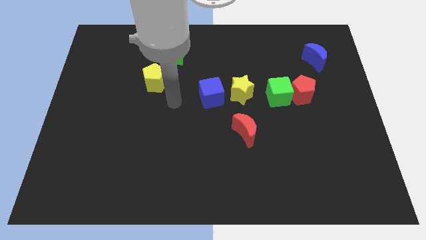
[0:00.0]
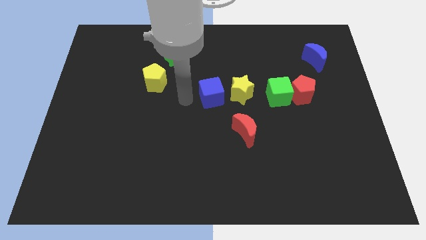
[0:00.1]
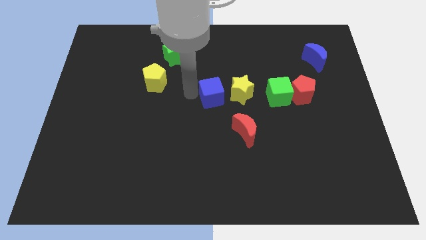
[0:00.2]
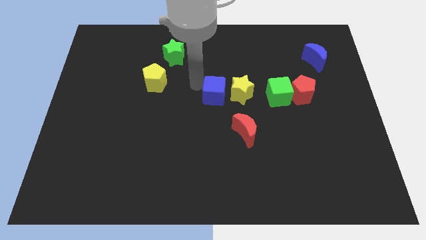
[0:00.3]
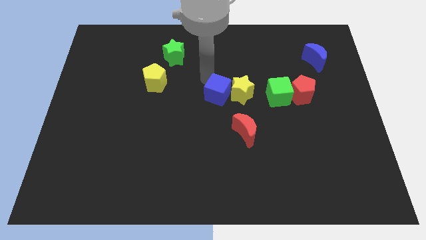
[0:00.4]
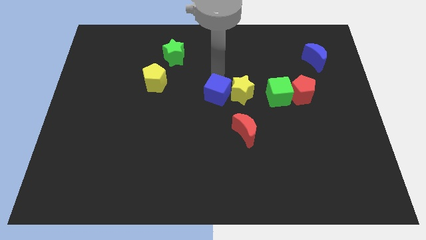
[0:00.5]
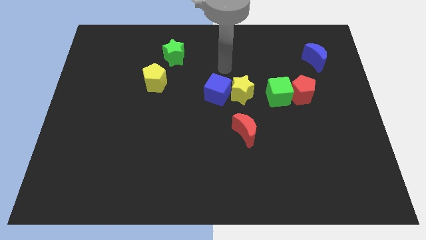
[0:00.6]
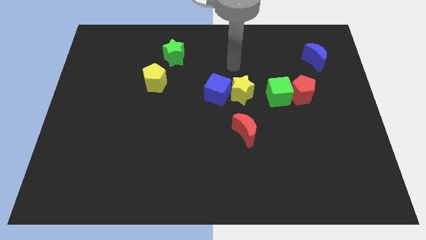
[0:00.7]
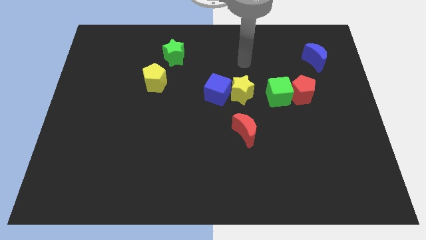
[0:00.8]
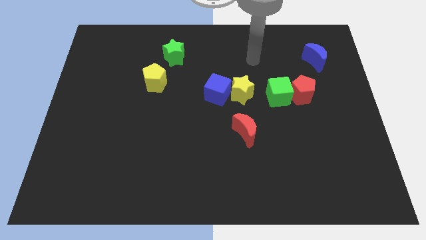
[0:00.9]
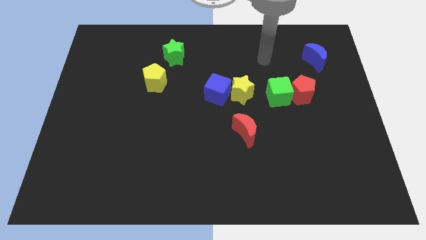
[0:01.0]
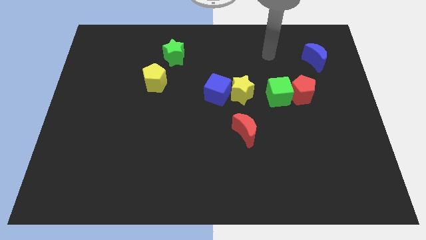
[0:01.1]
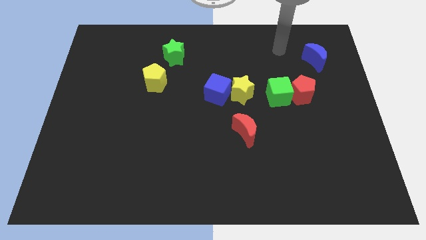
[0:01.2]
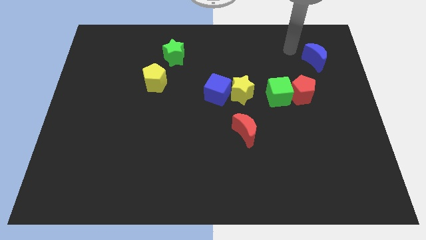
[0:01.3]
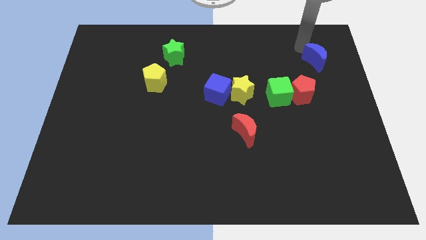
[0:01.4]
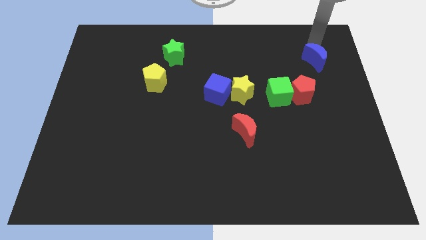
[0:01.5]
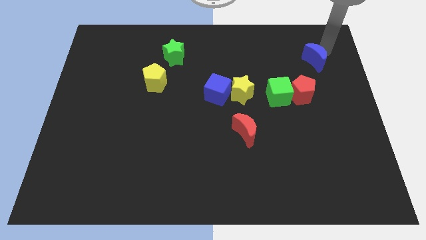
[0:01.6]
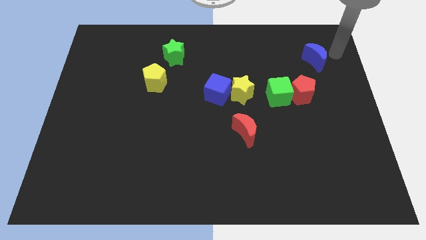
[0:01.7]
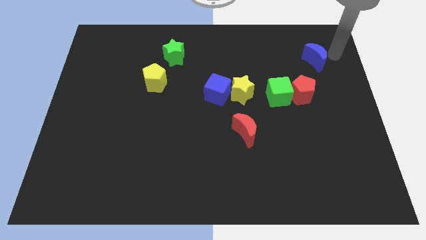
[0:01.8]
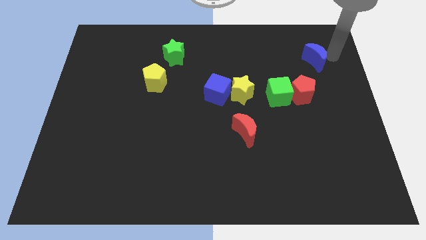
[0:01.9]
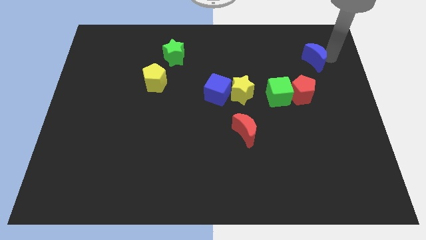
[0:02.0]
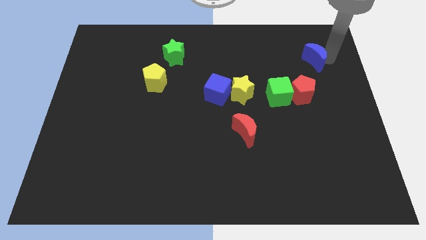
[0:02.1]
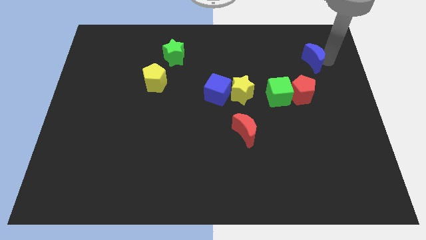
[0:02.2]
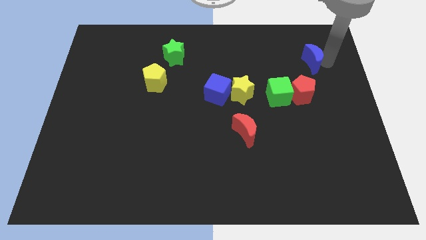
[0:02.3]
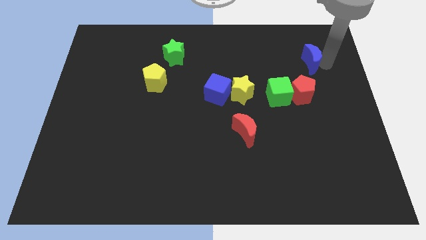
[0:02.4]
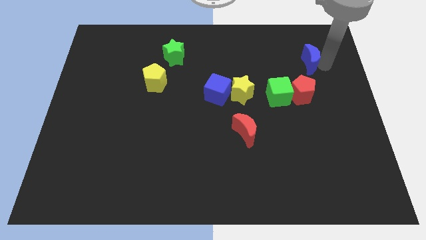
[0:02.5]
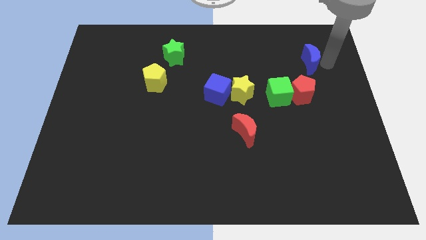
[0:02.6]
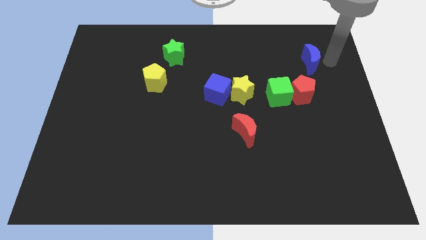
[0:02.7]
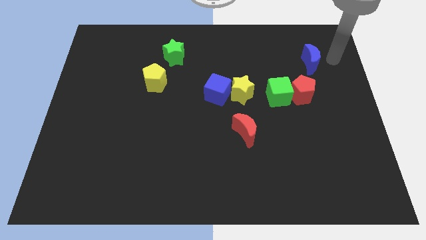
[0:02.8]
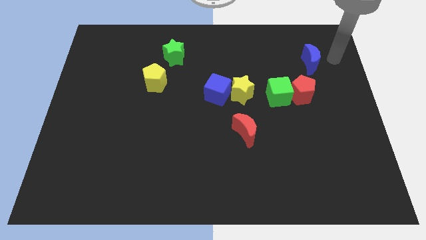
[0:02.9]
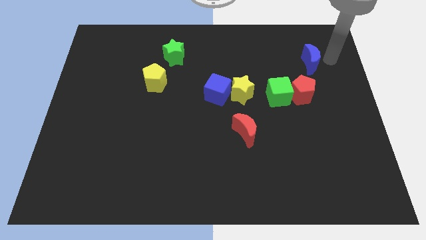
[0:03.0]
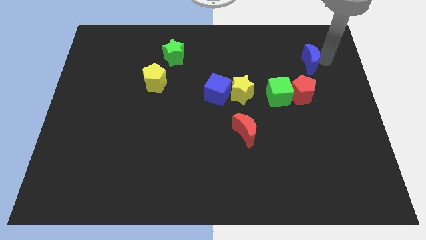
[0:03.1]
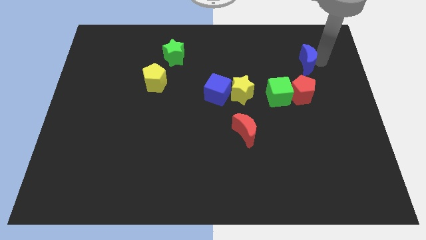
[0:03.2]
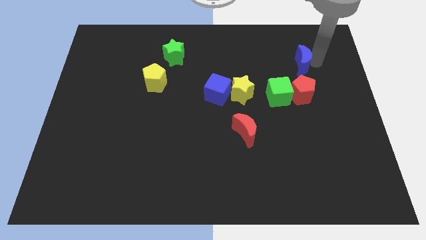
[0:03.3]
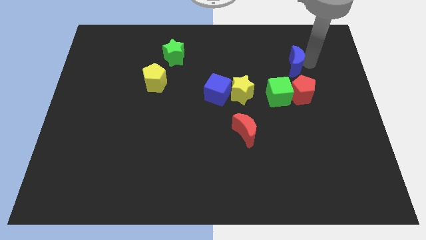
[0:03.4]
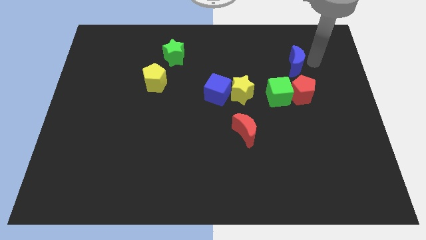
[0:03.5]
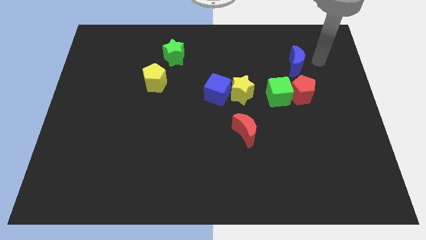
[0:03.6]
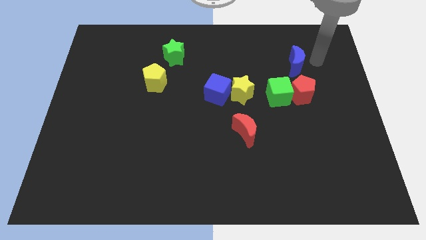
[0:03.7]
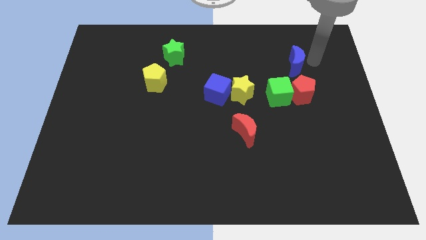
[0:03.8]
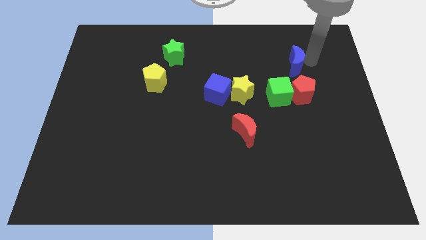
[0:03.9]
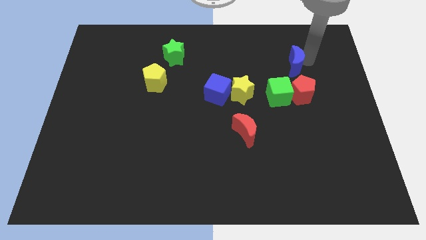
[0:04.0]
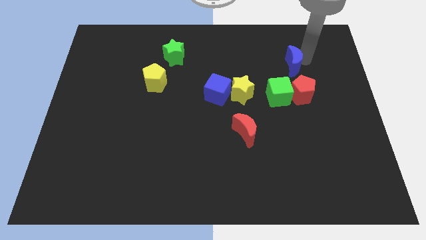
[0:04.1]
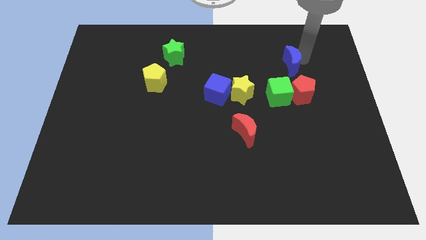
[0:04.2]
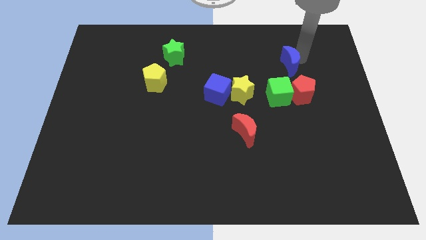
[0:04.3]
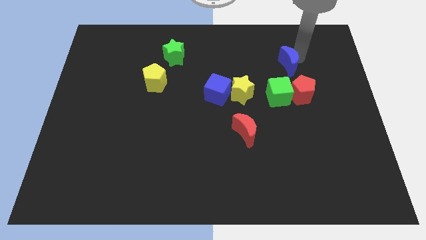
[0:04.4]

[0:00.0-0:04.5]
slide the blue moon to the left a bit

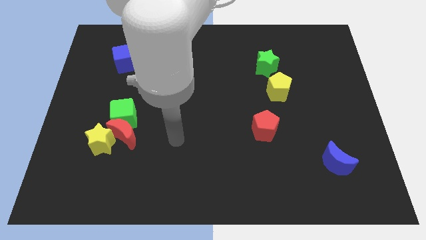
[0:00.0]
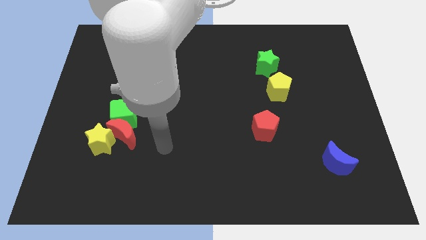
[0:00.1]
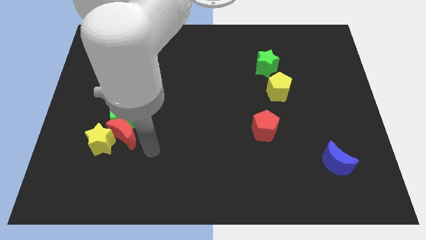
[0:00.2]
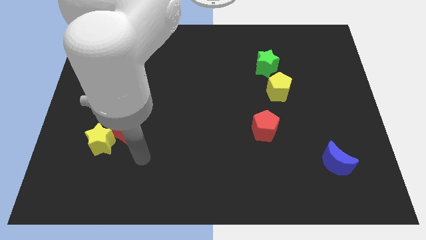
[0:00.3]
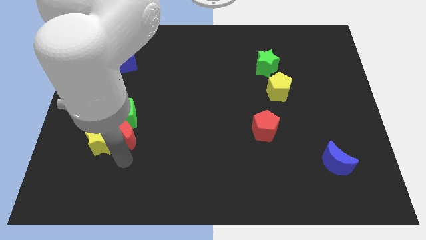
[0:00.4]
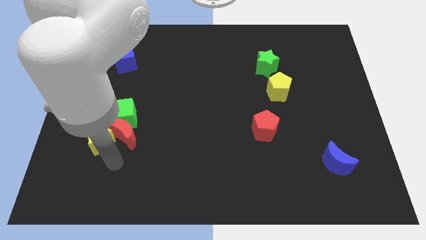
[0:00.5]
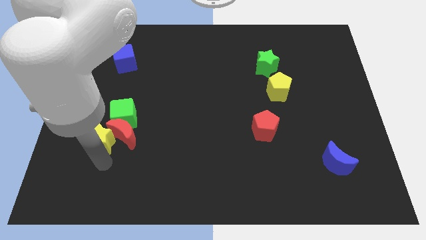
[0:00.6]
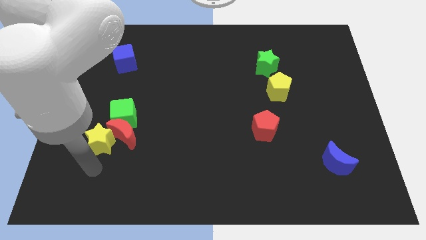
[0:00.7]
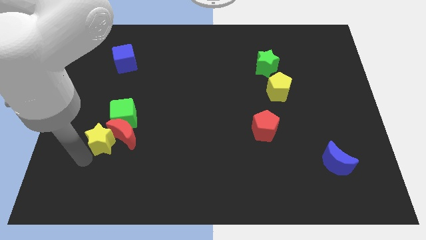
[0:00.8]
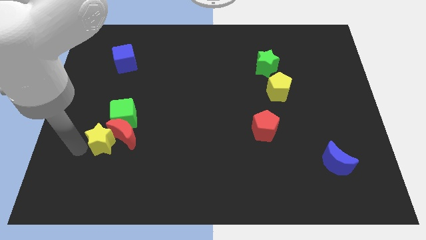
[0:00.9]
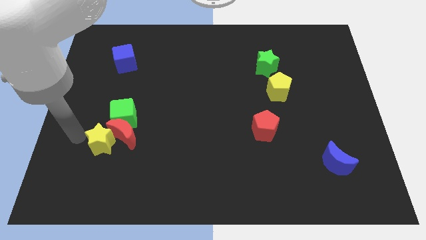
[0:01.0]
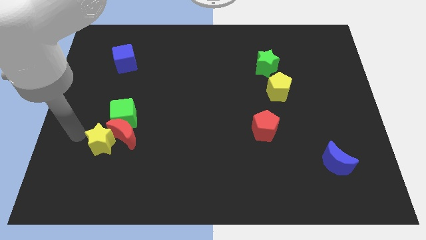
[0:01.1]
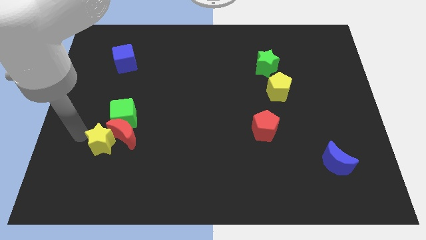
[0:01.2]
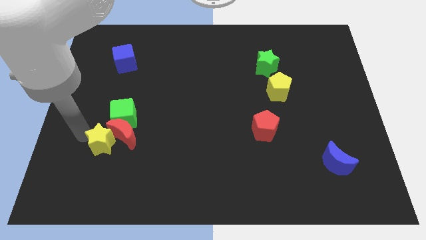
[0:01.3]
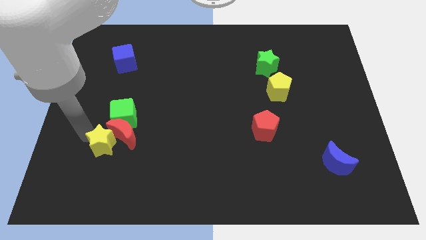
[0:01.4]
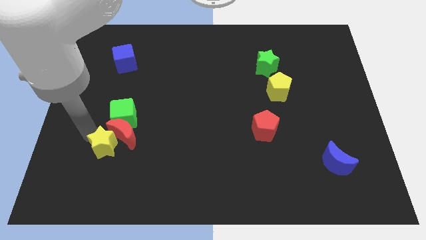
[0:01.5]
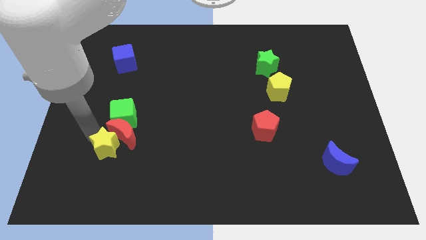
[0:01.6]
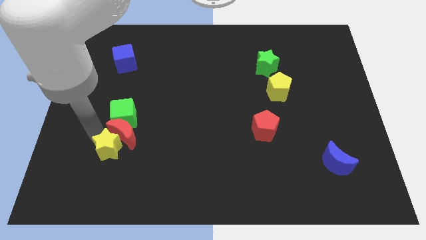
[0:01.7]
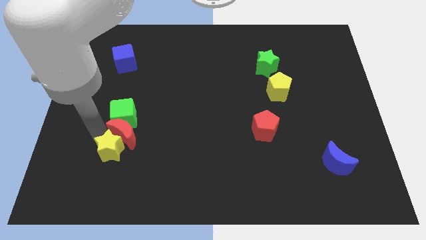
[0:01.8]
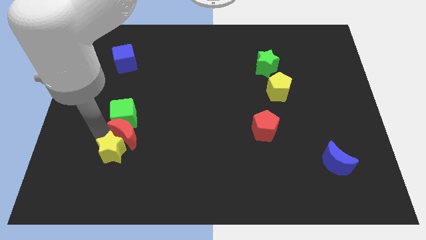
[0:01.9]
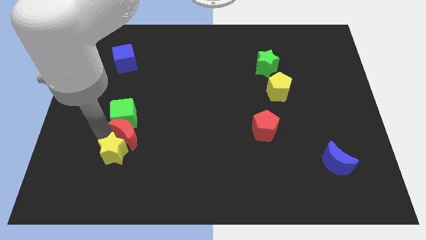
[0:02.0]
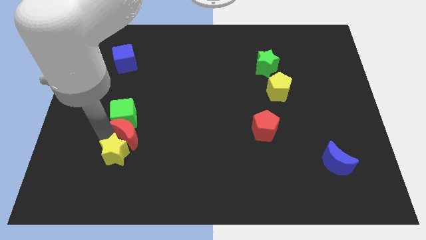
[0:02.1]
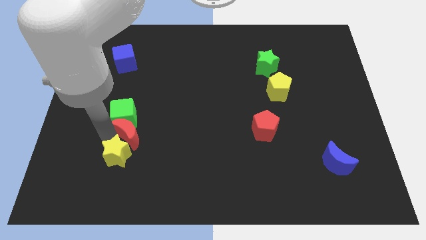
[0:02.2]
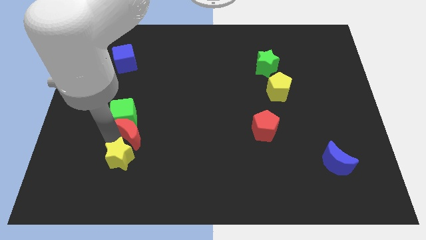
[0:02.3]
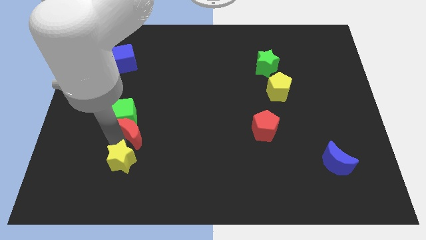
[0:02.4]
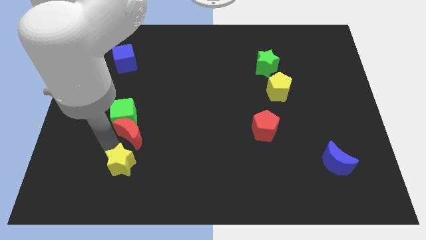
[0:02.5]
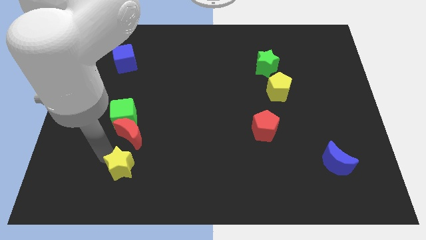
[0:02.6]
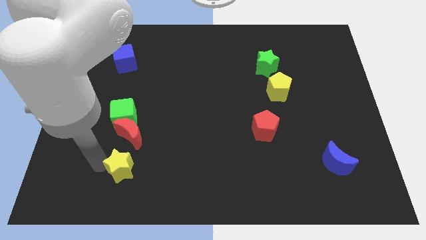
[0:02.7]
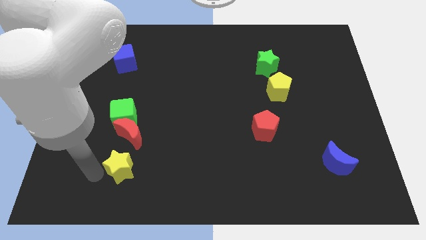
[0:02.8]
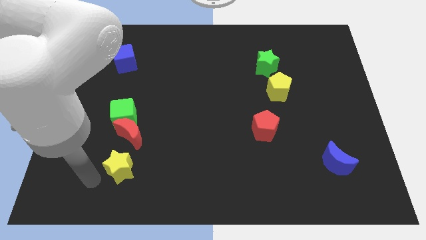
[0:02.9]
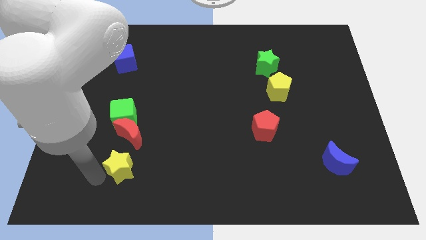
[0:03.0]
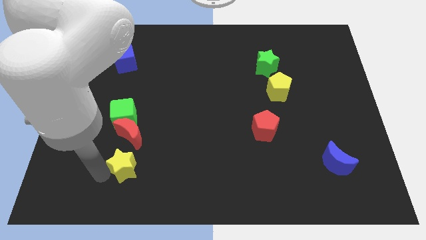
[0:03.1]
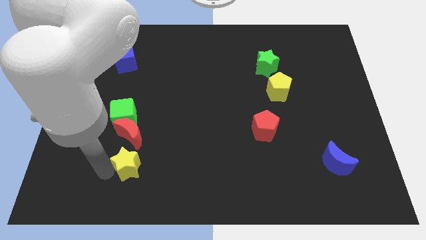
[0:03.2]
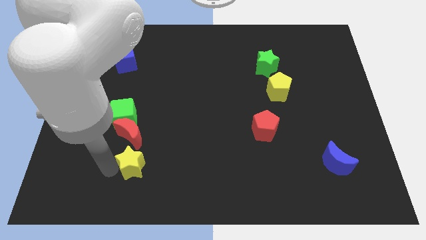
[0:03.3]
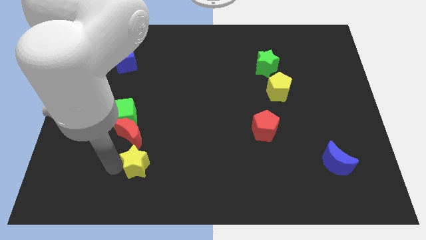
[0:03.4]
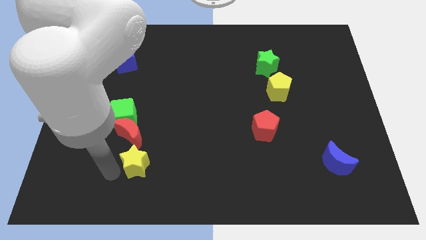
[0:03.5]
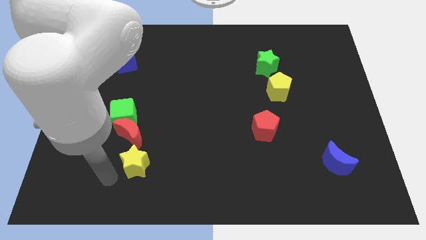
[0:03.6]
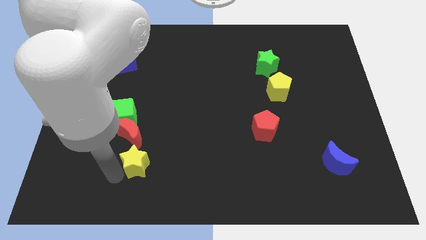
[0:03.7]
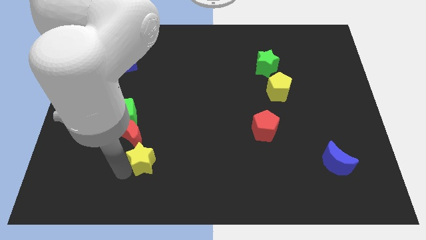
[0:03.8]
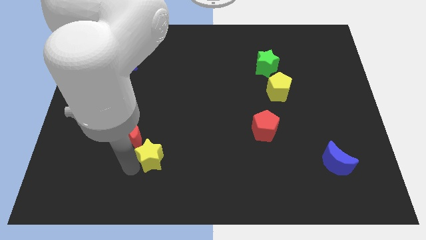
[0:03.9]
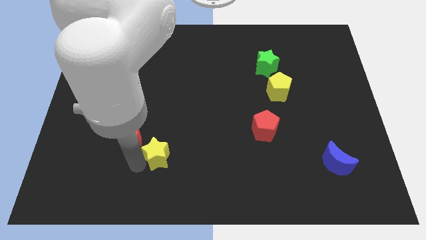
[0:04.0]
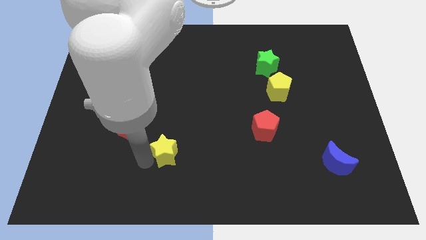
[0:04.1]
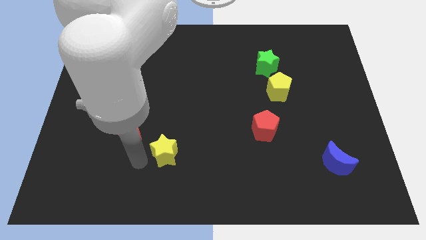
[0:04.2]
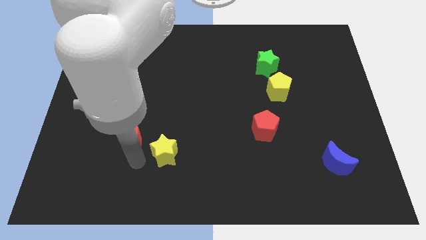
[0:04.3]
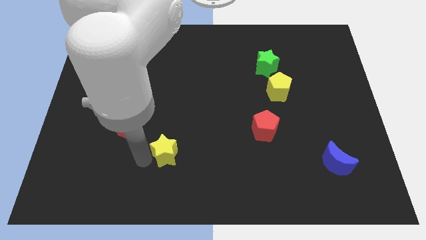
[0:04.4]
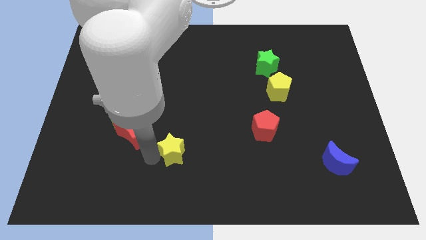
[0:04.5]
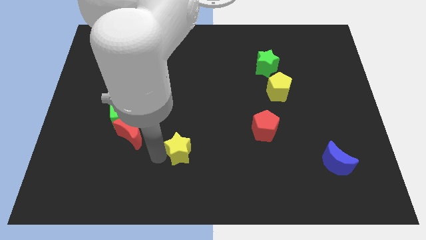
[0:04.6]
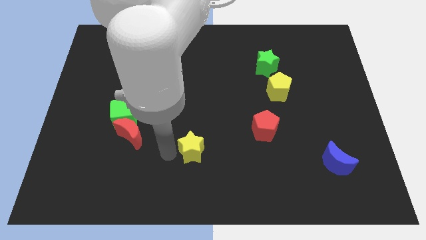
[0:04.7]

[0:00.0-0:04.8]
push the yellow star to the right
